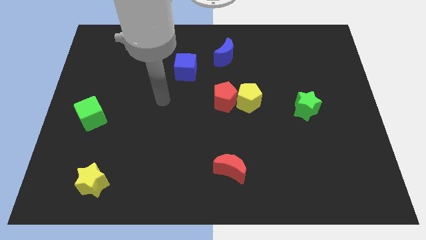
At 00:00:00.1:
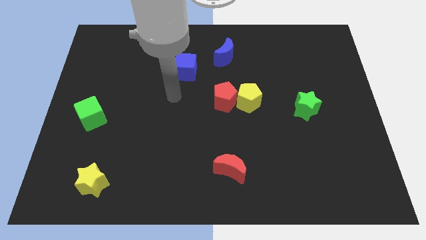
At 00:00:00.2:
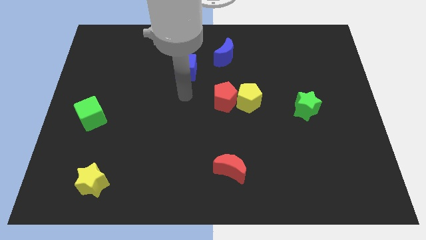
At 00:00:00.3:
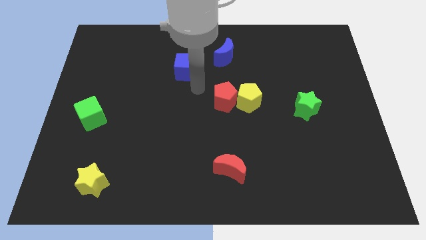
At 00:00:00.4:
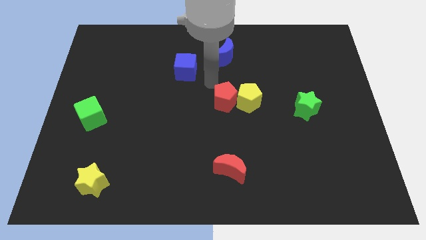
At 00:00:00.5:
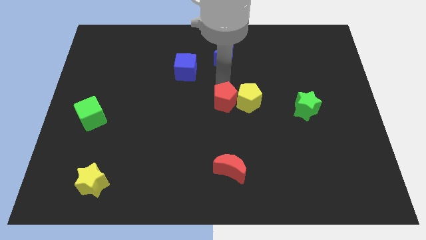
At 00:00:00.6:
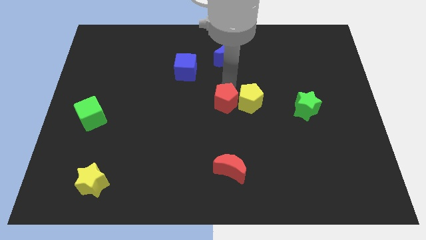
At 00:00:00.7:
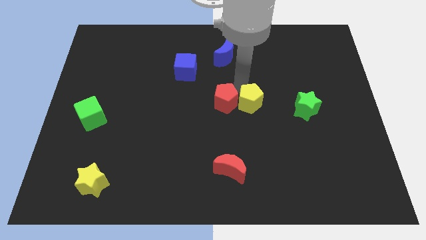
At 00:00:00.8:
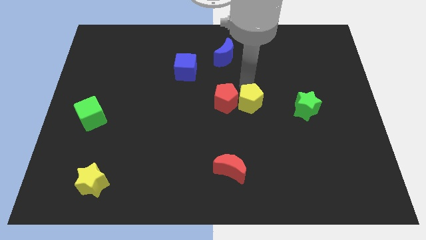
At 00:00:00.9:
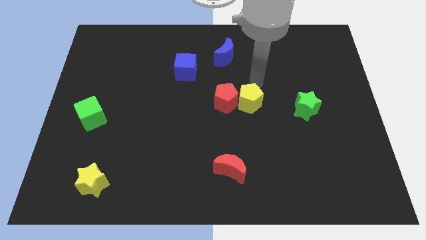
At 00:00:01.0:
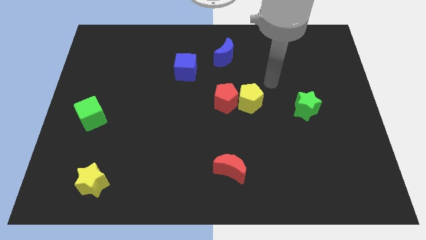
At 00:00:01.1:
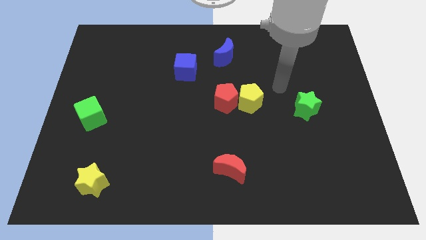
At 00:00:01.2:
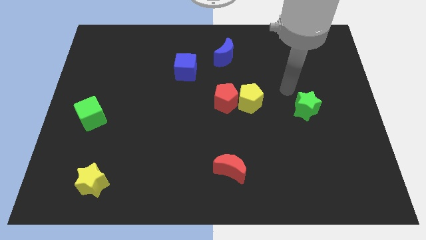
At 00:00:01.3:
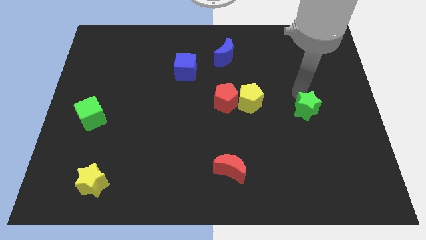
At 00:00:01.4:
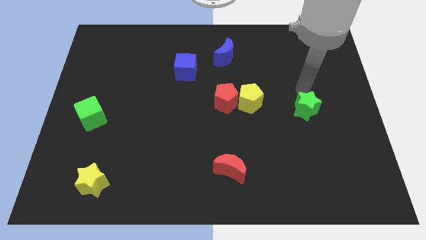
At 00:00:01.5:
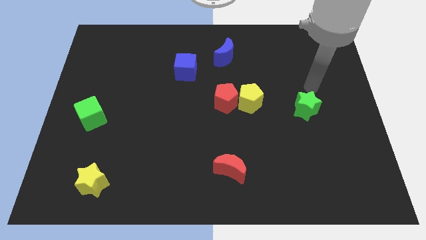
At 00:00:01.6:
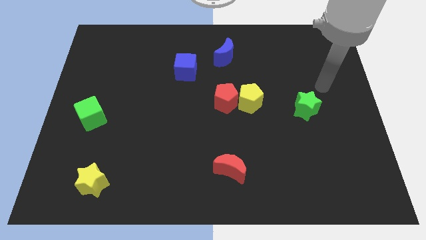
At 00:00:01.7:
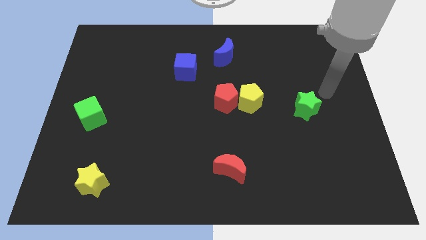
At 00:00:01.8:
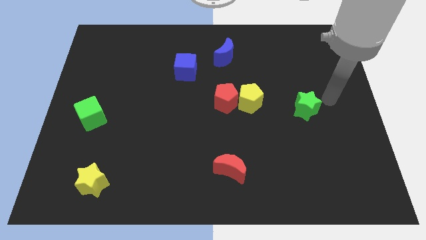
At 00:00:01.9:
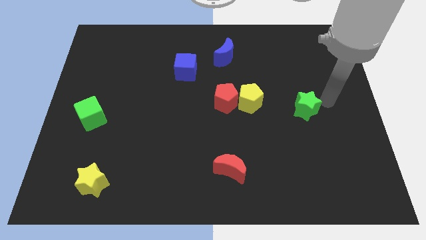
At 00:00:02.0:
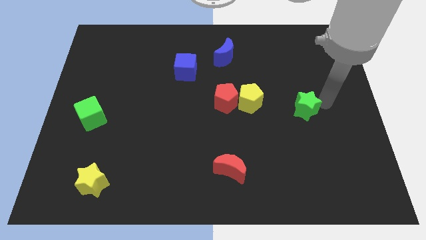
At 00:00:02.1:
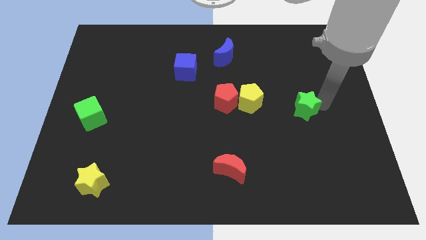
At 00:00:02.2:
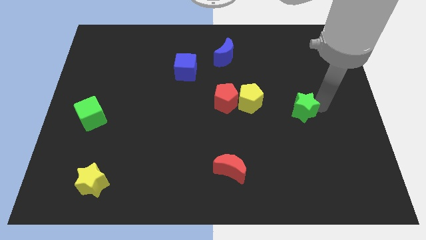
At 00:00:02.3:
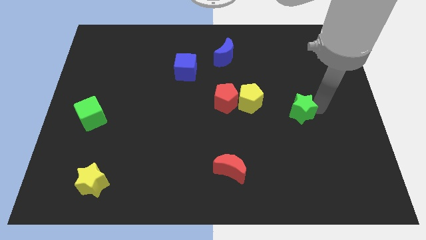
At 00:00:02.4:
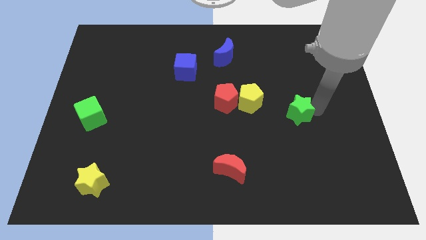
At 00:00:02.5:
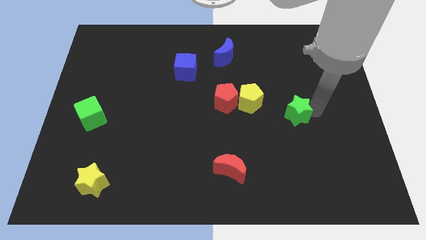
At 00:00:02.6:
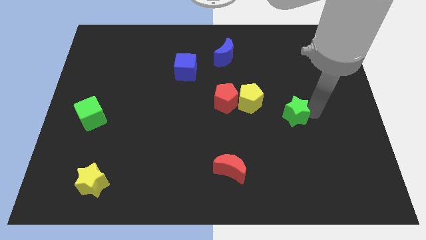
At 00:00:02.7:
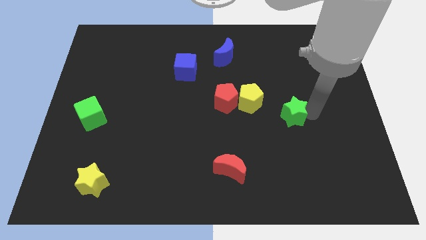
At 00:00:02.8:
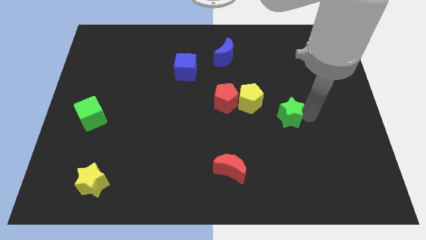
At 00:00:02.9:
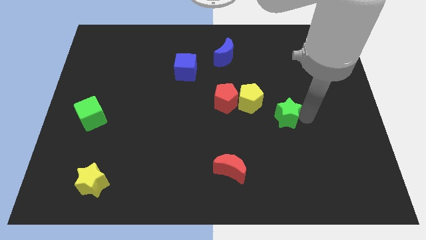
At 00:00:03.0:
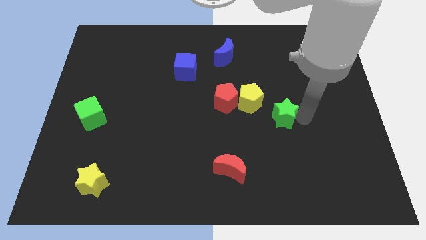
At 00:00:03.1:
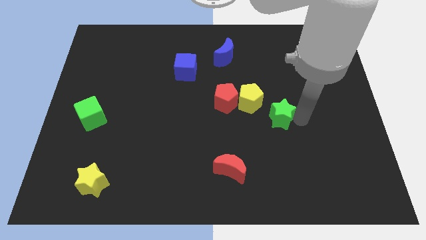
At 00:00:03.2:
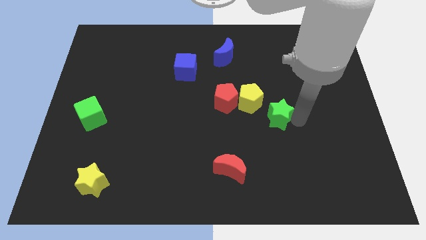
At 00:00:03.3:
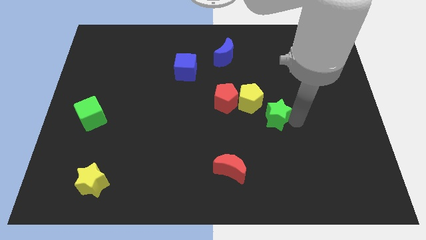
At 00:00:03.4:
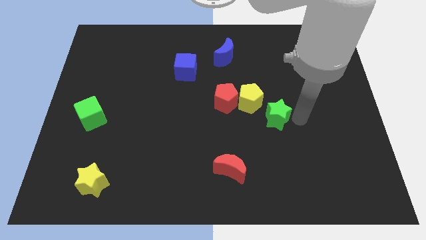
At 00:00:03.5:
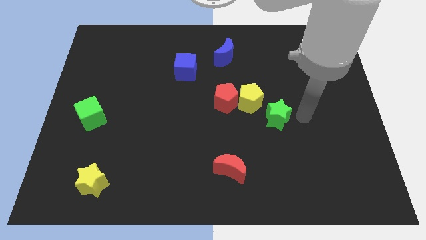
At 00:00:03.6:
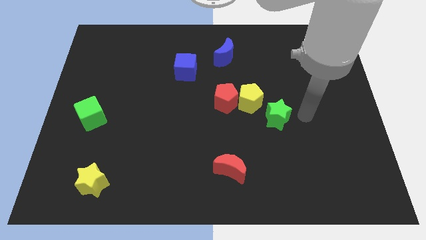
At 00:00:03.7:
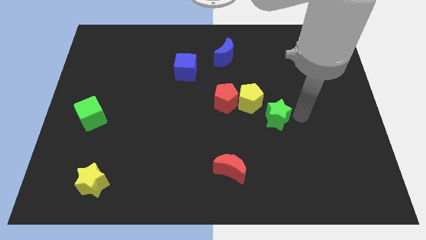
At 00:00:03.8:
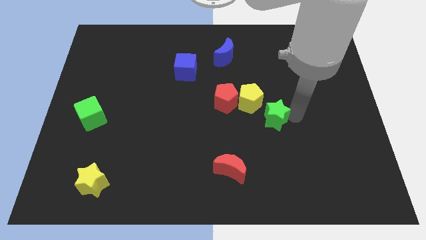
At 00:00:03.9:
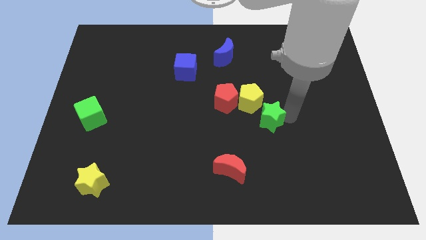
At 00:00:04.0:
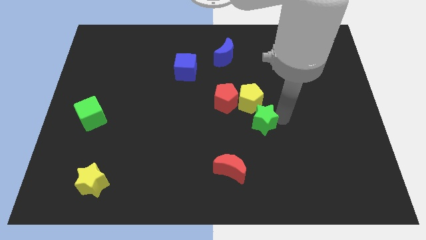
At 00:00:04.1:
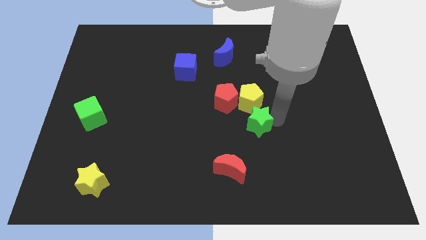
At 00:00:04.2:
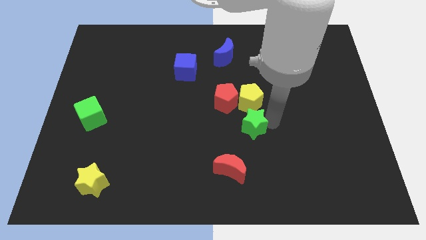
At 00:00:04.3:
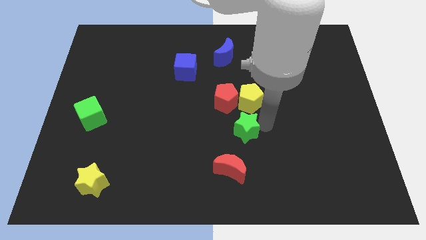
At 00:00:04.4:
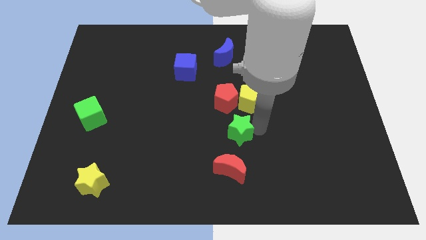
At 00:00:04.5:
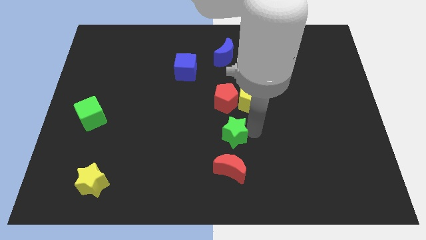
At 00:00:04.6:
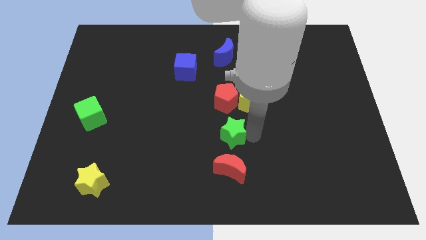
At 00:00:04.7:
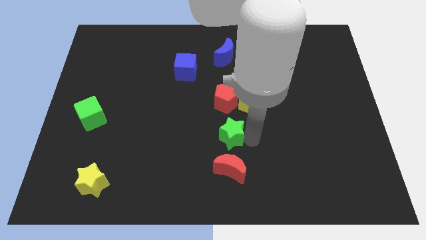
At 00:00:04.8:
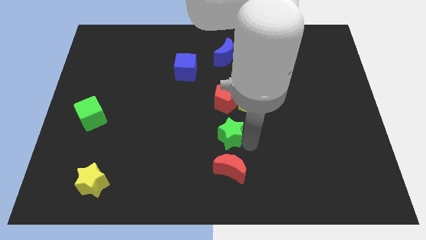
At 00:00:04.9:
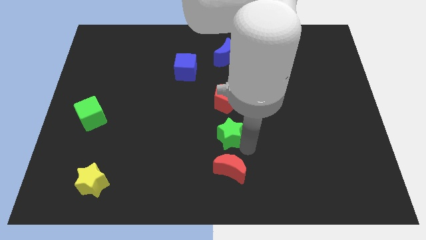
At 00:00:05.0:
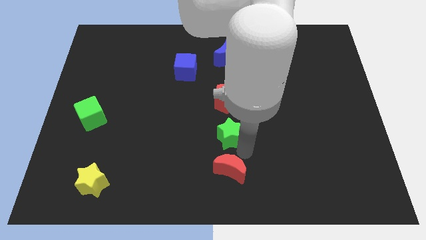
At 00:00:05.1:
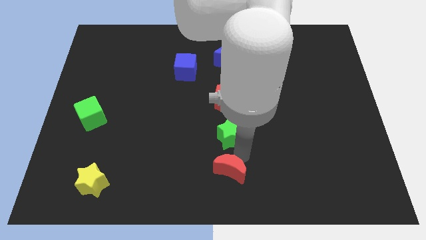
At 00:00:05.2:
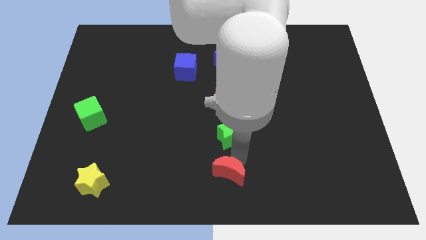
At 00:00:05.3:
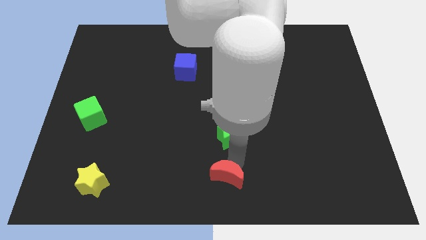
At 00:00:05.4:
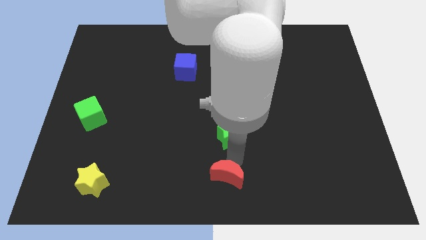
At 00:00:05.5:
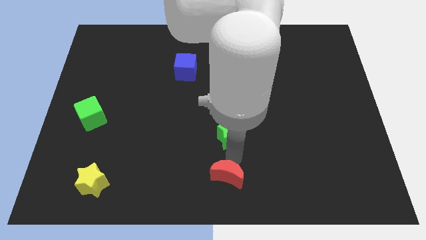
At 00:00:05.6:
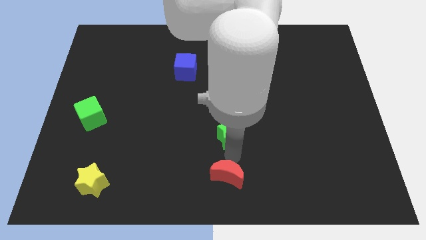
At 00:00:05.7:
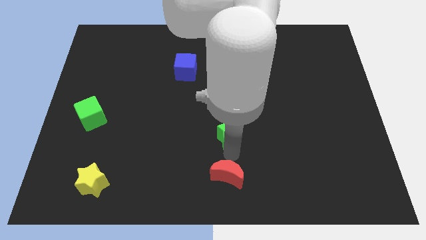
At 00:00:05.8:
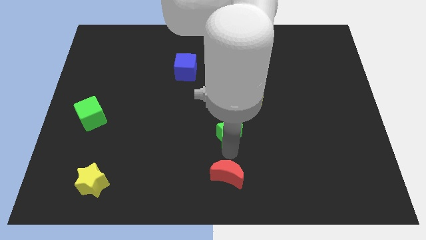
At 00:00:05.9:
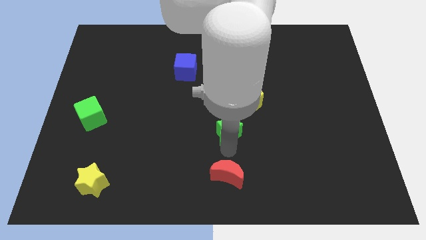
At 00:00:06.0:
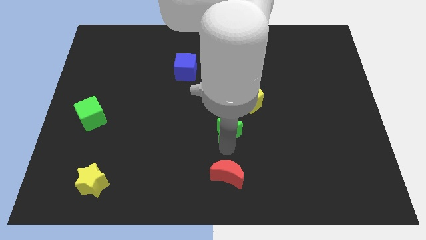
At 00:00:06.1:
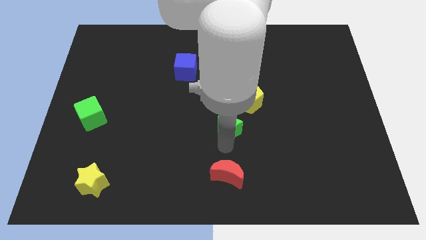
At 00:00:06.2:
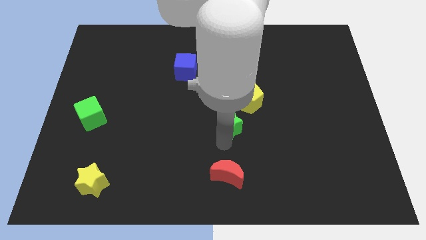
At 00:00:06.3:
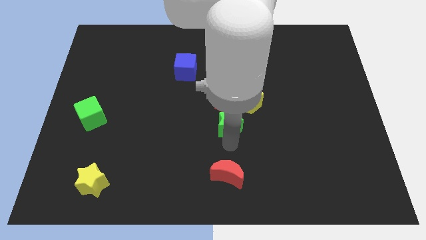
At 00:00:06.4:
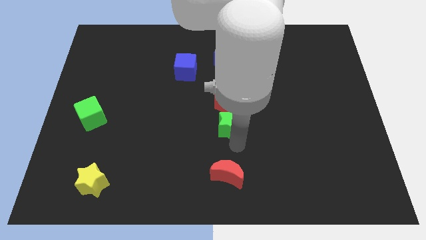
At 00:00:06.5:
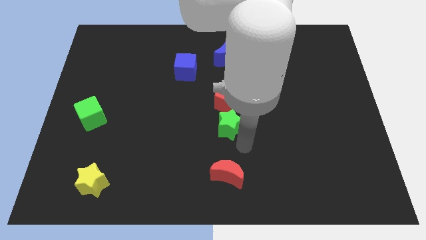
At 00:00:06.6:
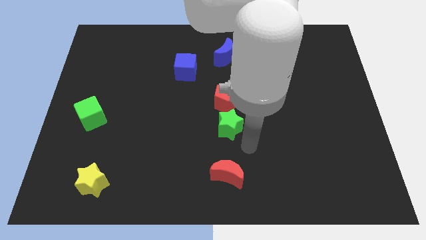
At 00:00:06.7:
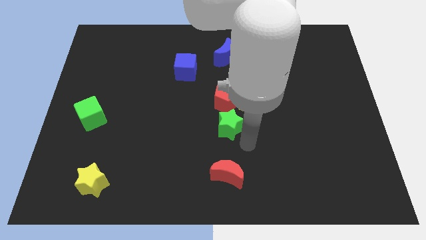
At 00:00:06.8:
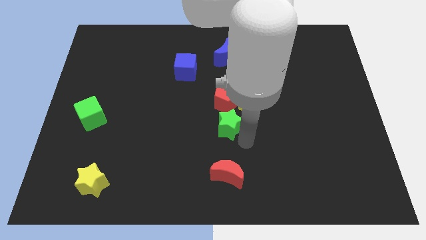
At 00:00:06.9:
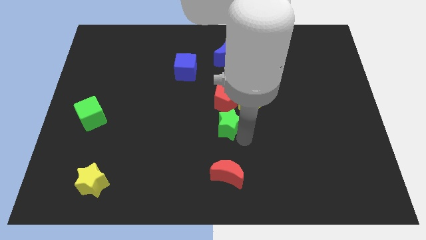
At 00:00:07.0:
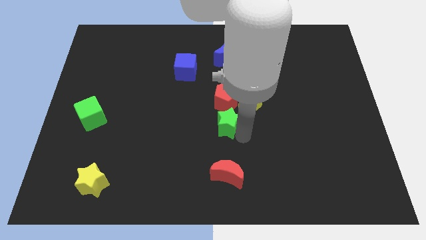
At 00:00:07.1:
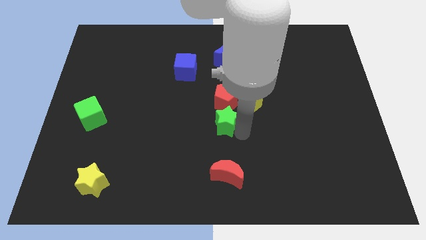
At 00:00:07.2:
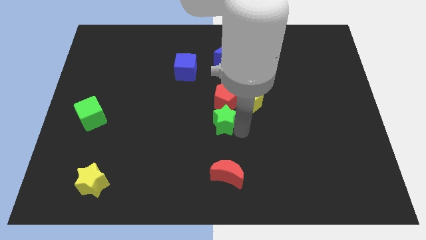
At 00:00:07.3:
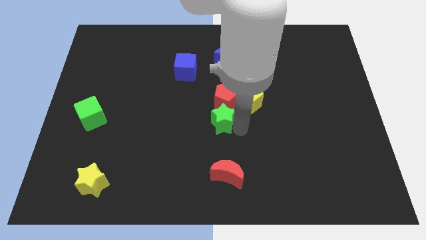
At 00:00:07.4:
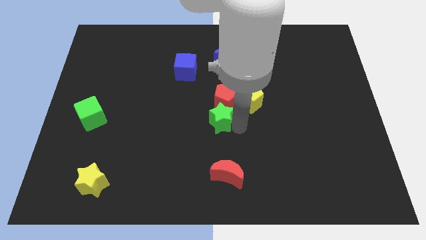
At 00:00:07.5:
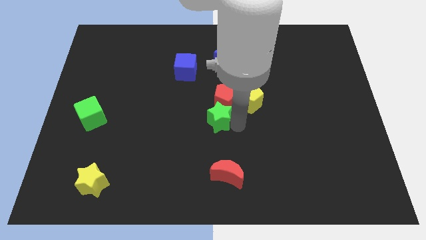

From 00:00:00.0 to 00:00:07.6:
push the green star to the left

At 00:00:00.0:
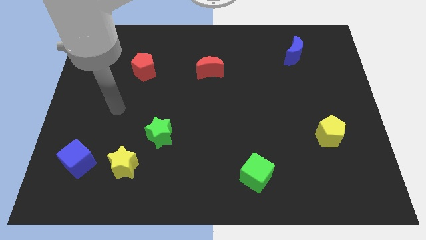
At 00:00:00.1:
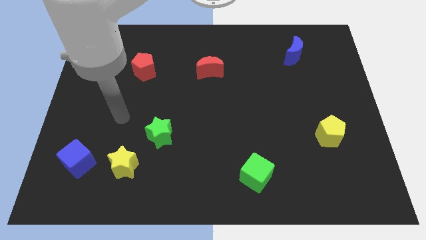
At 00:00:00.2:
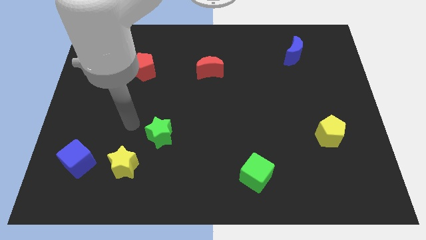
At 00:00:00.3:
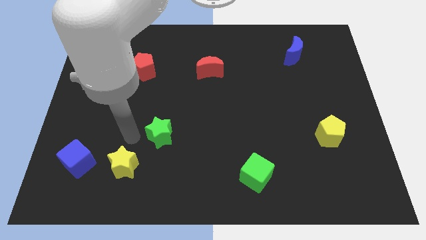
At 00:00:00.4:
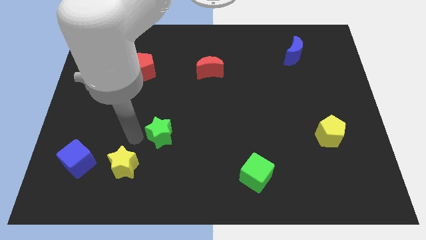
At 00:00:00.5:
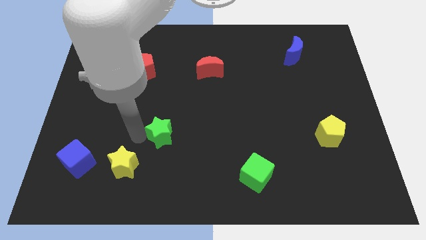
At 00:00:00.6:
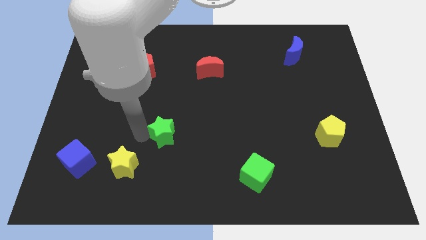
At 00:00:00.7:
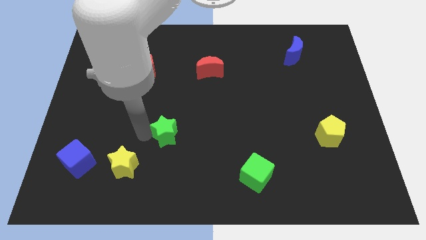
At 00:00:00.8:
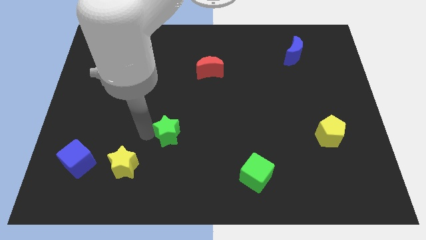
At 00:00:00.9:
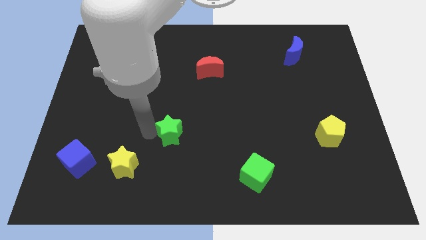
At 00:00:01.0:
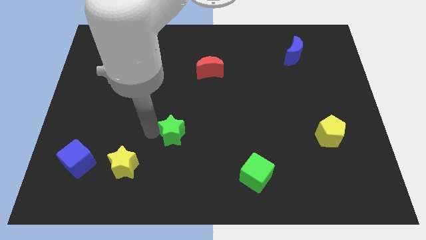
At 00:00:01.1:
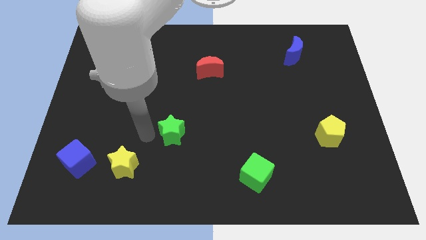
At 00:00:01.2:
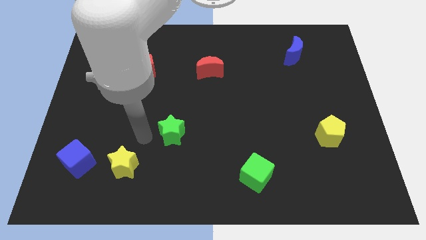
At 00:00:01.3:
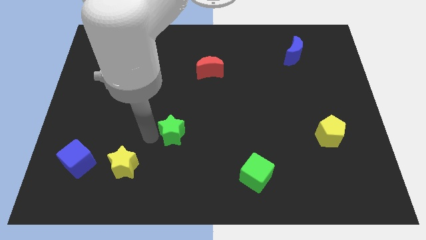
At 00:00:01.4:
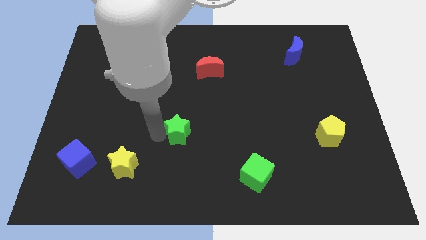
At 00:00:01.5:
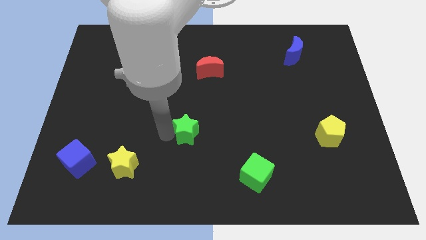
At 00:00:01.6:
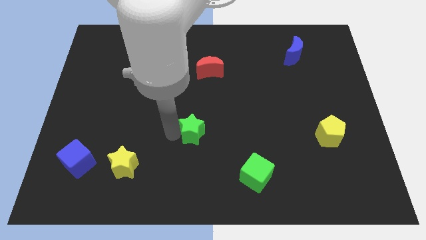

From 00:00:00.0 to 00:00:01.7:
slide the green star somewhat right
